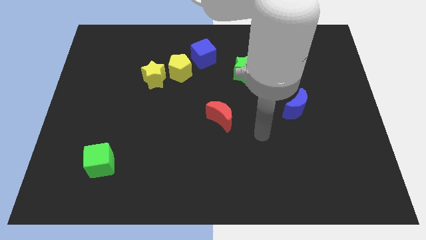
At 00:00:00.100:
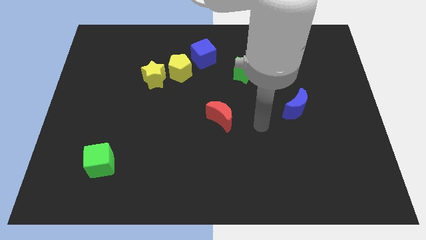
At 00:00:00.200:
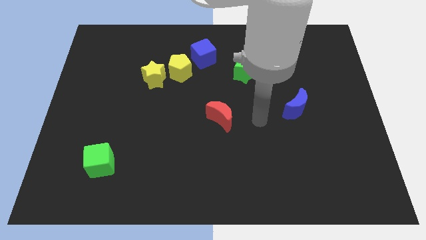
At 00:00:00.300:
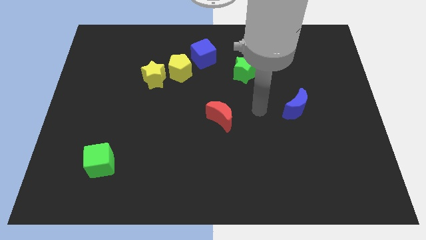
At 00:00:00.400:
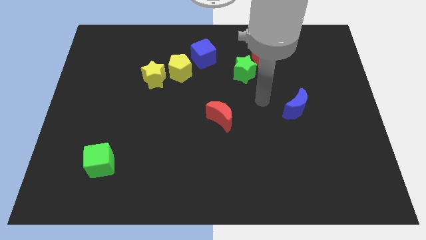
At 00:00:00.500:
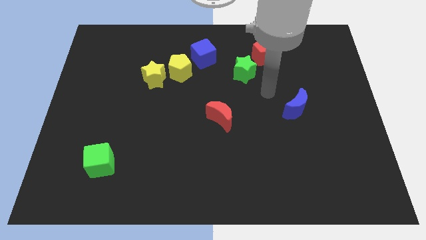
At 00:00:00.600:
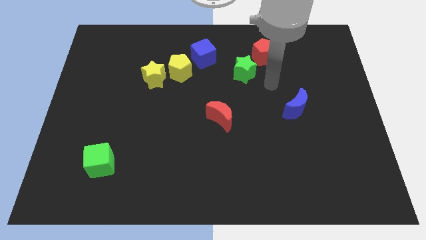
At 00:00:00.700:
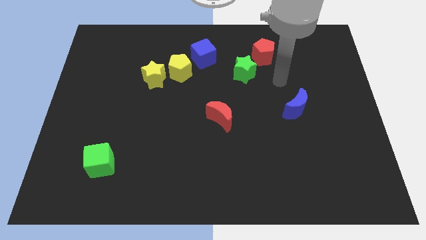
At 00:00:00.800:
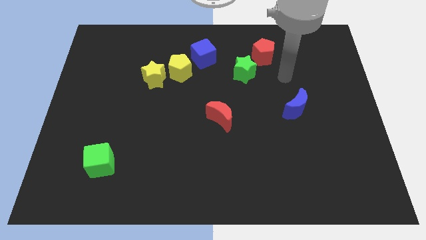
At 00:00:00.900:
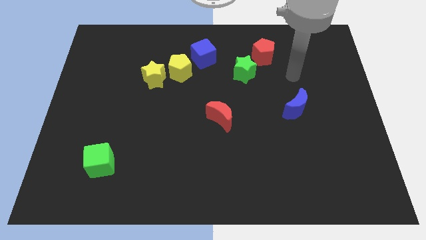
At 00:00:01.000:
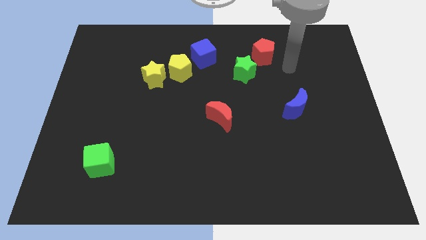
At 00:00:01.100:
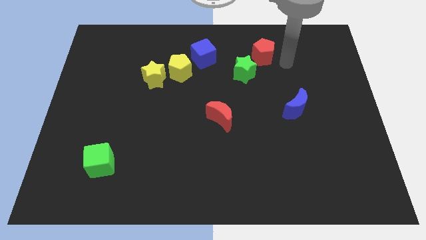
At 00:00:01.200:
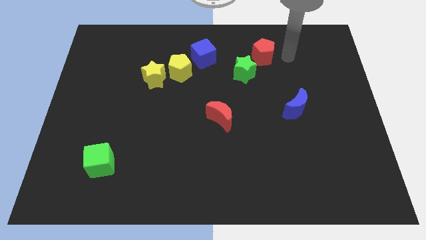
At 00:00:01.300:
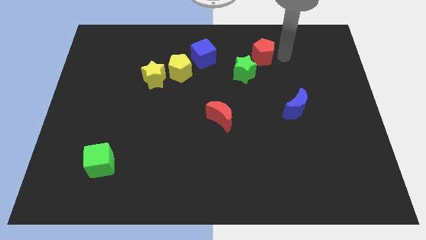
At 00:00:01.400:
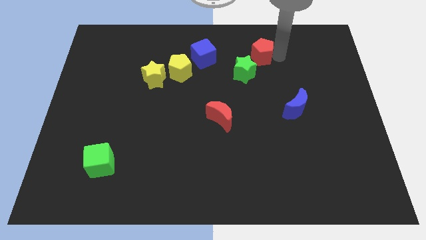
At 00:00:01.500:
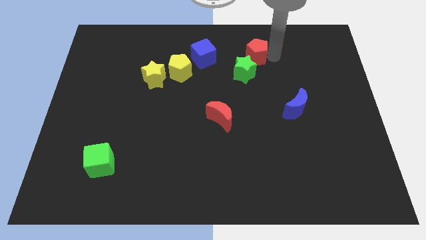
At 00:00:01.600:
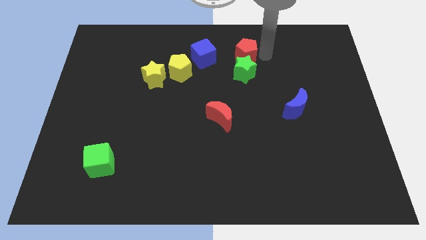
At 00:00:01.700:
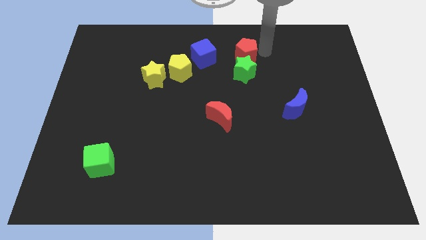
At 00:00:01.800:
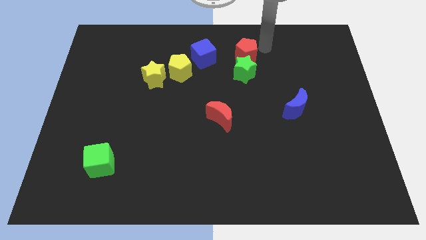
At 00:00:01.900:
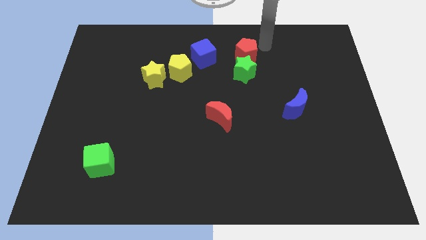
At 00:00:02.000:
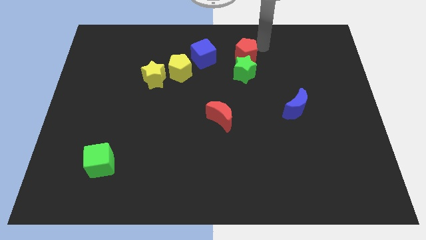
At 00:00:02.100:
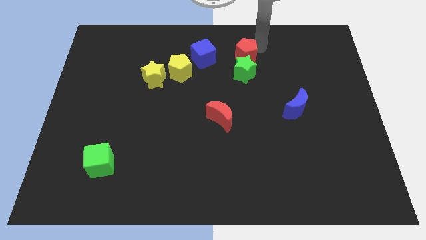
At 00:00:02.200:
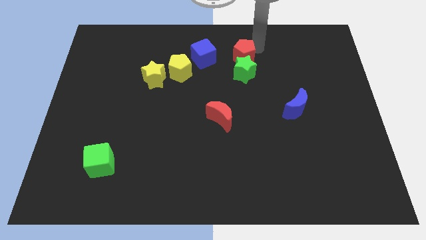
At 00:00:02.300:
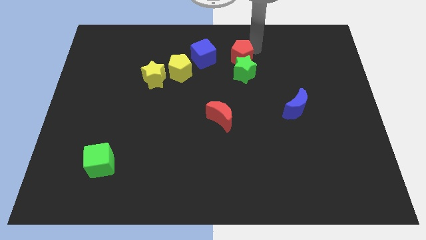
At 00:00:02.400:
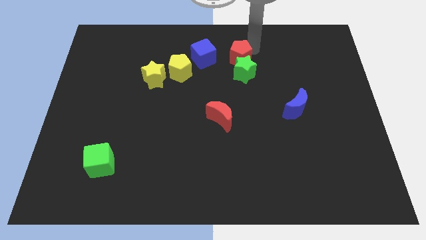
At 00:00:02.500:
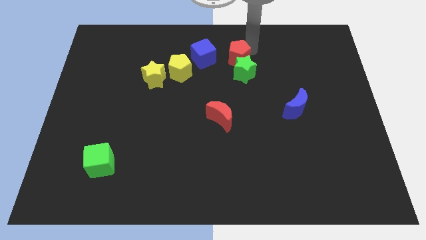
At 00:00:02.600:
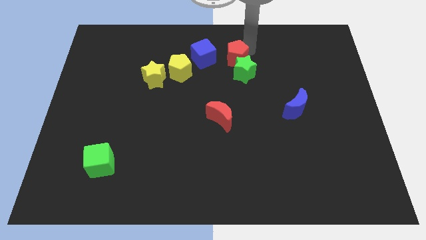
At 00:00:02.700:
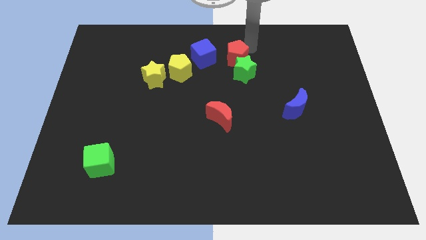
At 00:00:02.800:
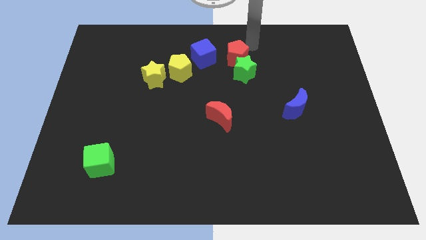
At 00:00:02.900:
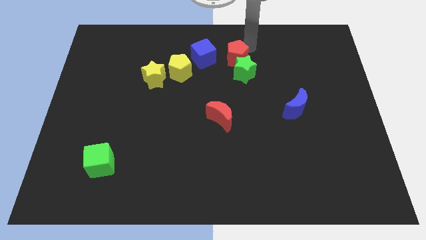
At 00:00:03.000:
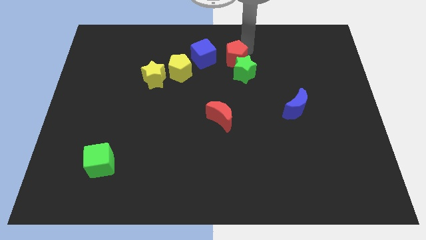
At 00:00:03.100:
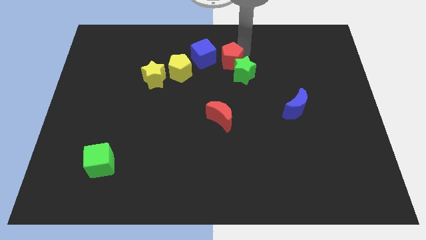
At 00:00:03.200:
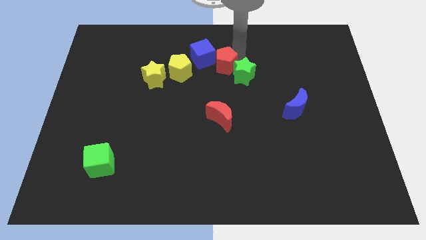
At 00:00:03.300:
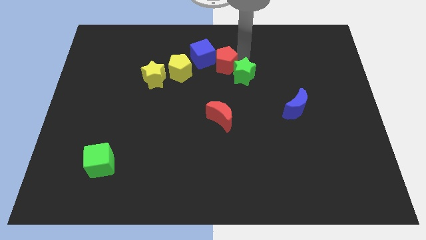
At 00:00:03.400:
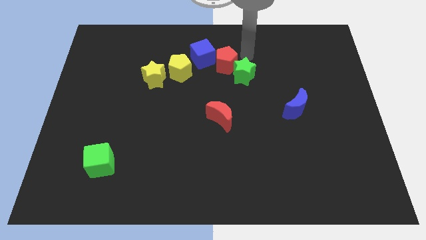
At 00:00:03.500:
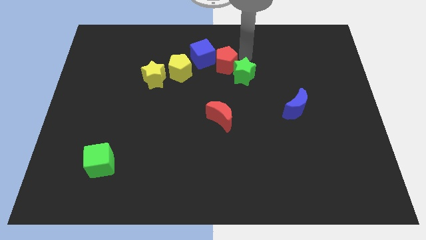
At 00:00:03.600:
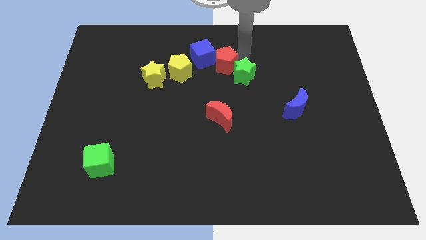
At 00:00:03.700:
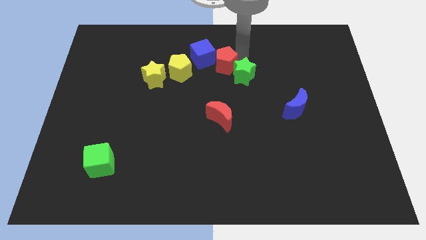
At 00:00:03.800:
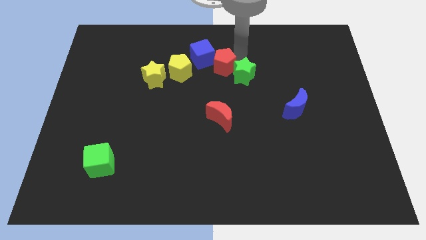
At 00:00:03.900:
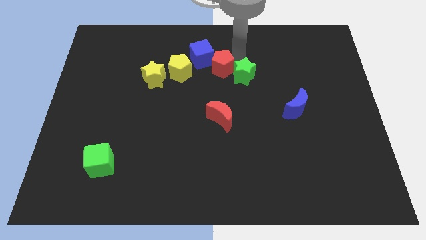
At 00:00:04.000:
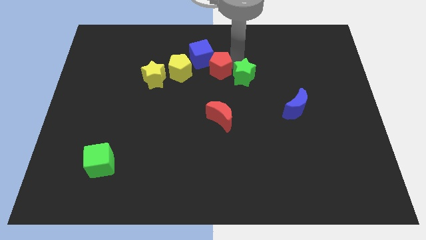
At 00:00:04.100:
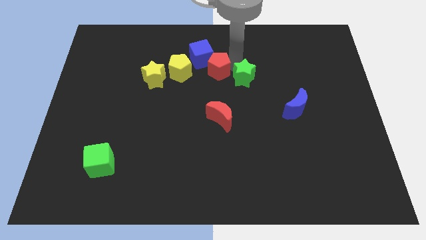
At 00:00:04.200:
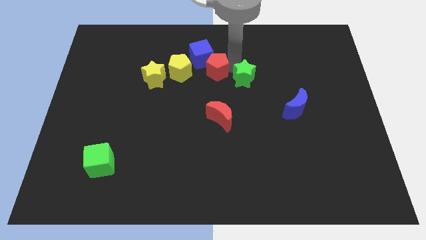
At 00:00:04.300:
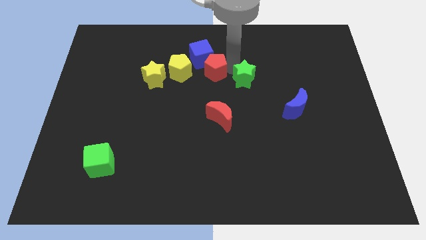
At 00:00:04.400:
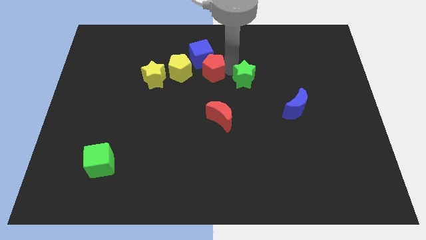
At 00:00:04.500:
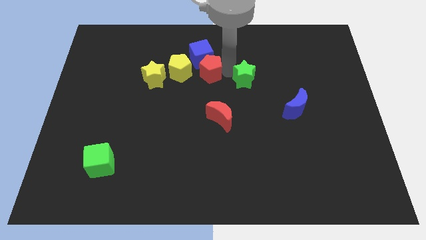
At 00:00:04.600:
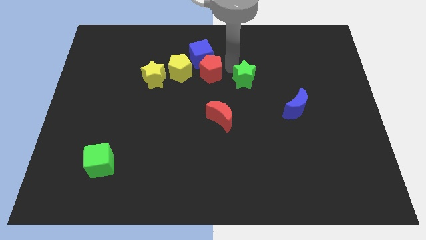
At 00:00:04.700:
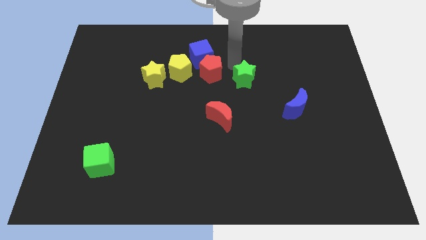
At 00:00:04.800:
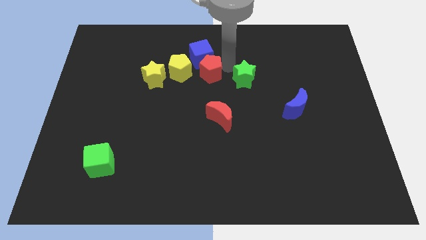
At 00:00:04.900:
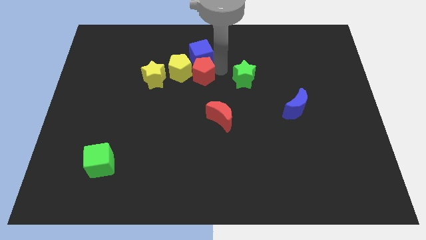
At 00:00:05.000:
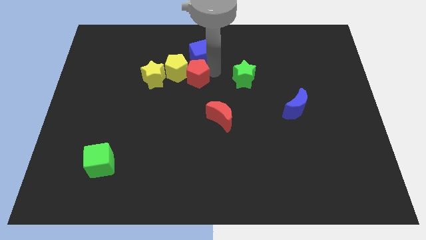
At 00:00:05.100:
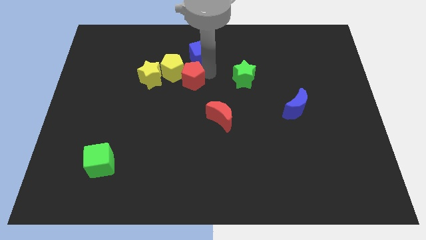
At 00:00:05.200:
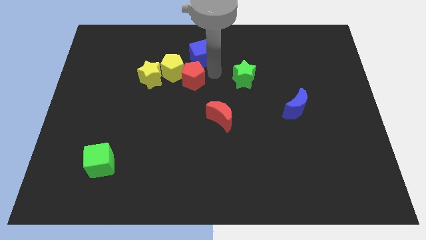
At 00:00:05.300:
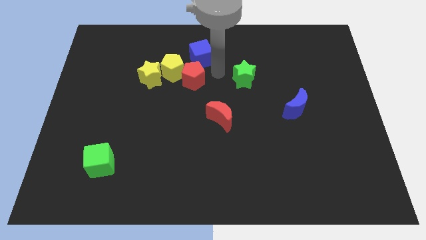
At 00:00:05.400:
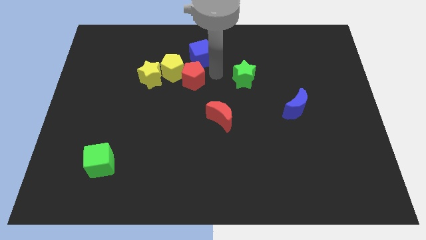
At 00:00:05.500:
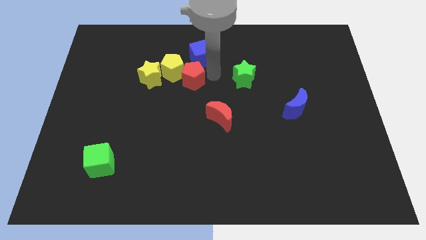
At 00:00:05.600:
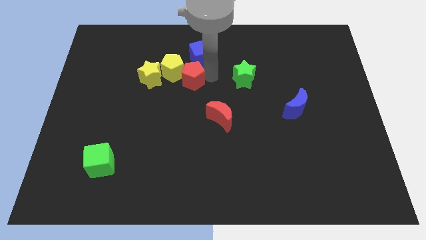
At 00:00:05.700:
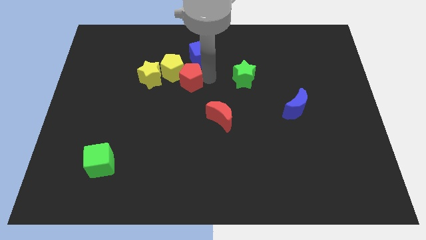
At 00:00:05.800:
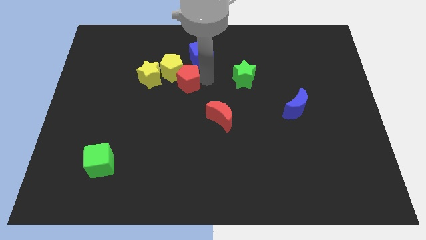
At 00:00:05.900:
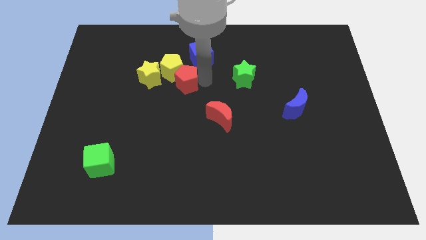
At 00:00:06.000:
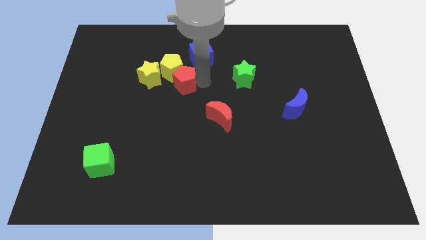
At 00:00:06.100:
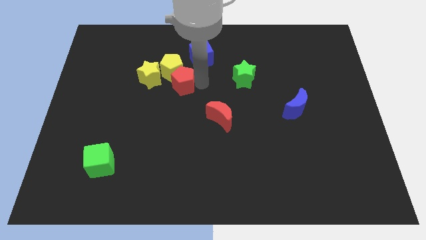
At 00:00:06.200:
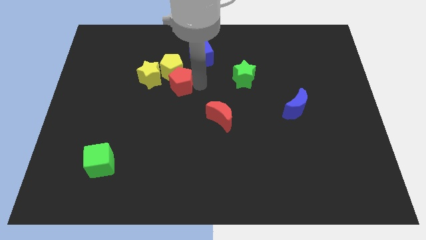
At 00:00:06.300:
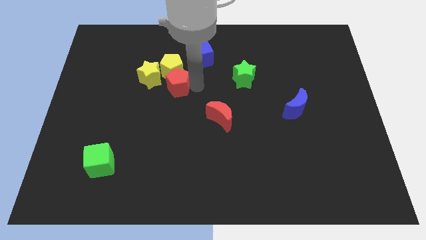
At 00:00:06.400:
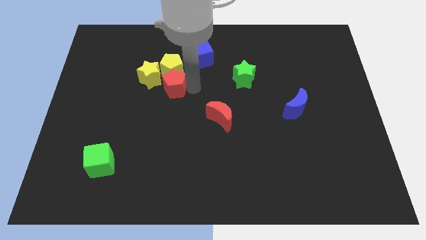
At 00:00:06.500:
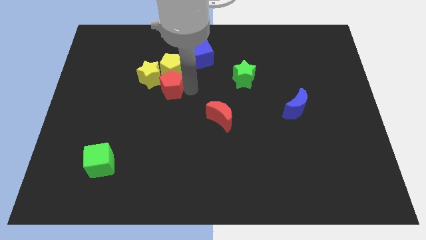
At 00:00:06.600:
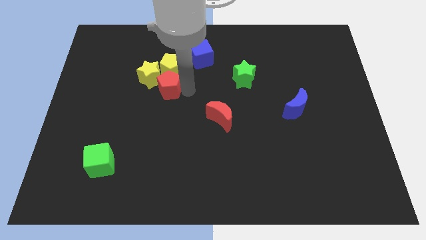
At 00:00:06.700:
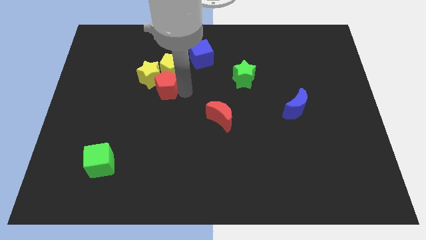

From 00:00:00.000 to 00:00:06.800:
push the red pentagon towards the yellow star

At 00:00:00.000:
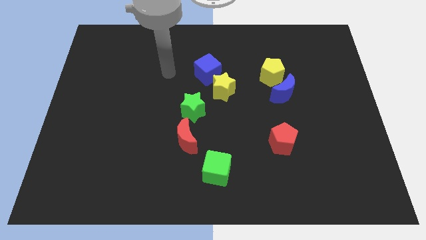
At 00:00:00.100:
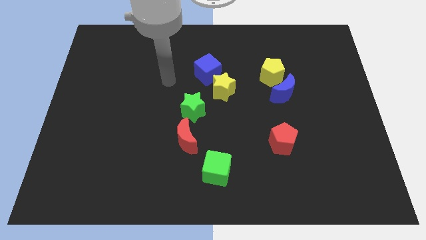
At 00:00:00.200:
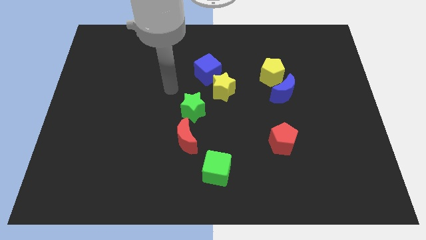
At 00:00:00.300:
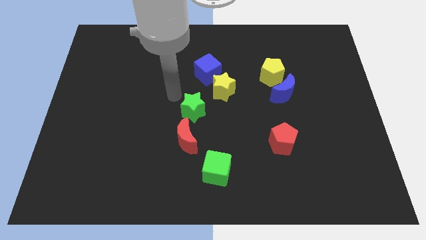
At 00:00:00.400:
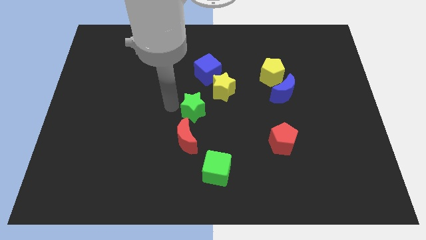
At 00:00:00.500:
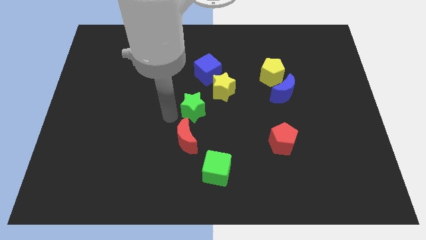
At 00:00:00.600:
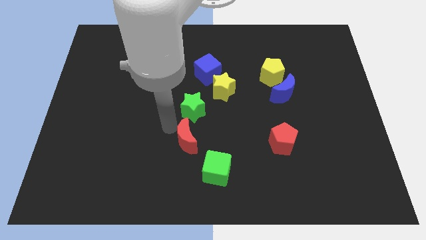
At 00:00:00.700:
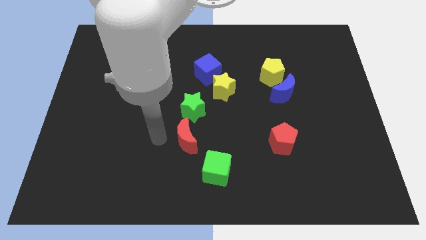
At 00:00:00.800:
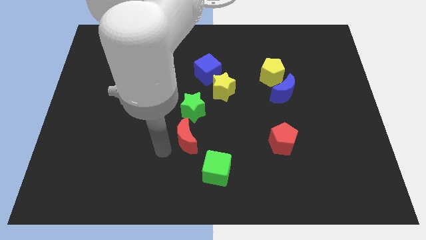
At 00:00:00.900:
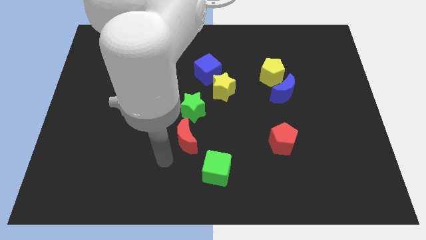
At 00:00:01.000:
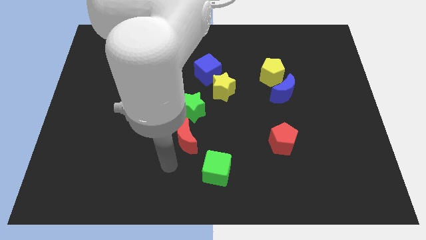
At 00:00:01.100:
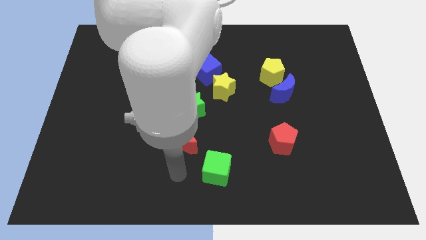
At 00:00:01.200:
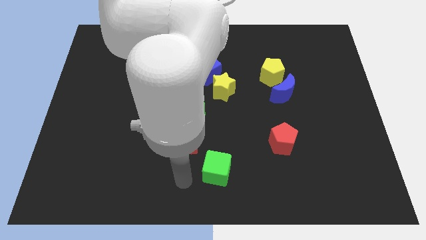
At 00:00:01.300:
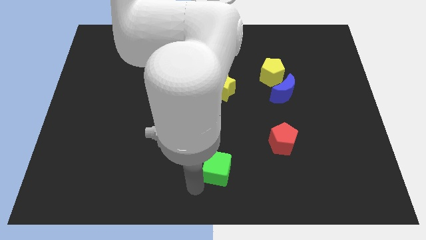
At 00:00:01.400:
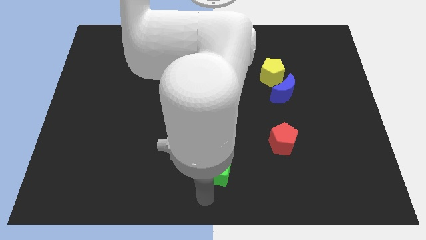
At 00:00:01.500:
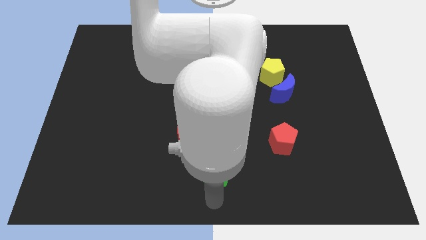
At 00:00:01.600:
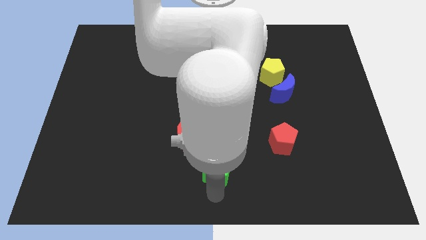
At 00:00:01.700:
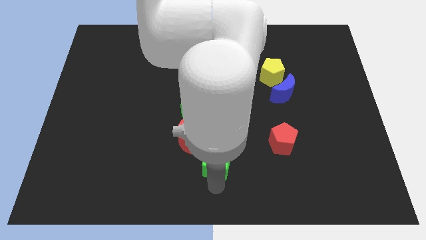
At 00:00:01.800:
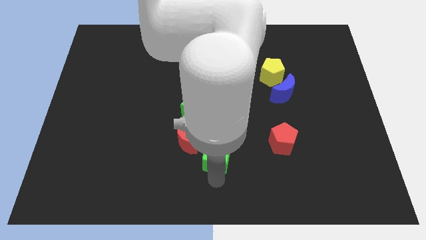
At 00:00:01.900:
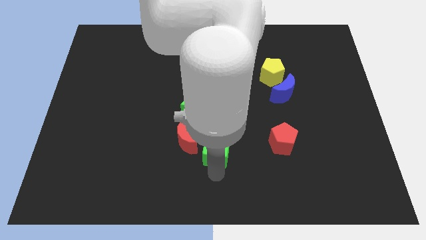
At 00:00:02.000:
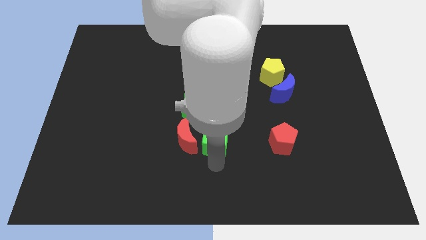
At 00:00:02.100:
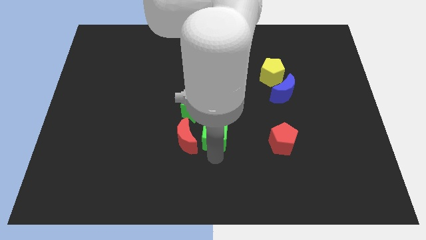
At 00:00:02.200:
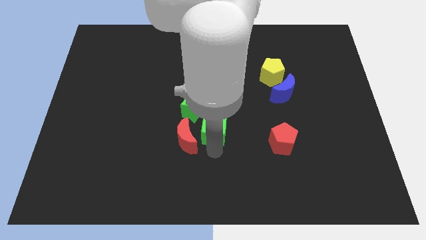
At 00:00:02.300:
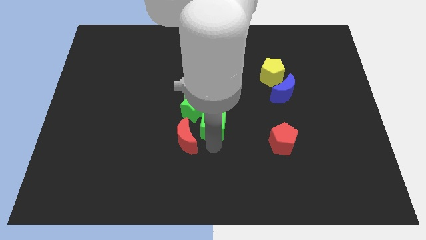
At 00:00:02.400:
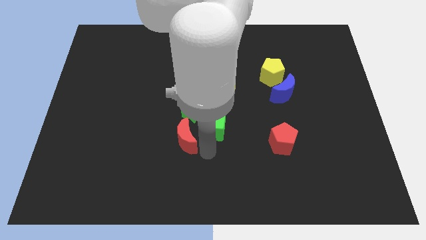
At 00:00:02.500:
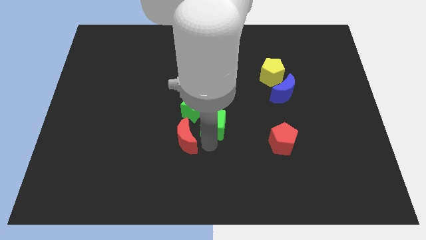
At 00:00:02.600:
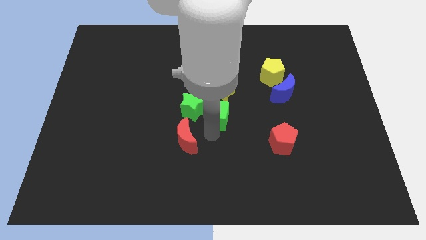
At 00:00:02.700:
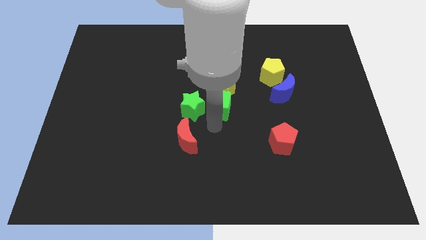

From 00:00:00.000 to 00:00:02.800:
move the green cube close to the yellow star
